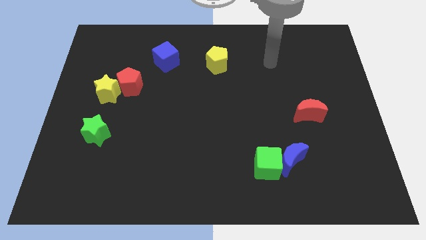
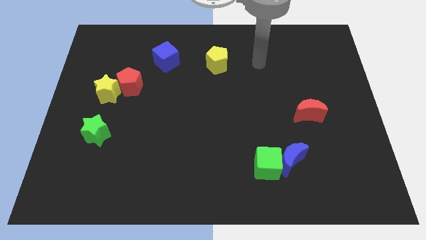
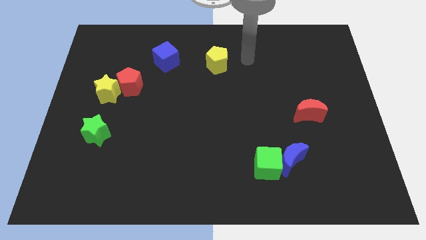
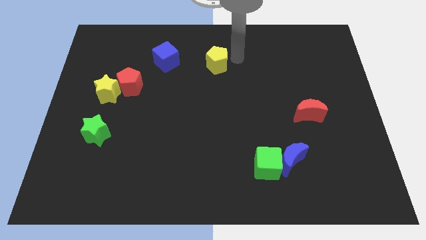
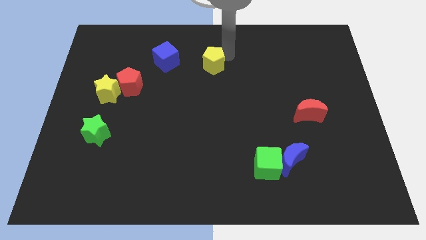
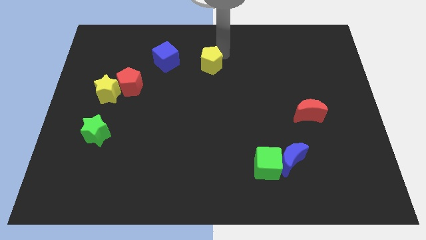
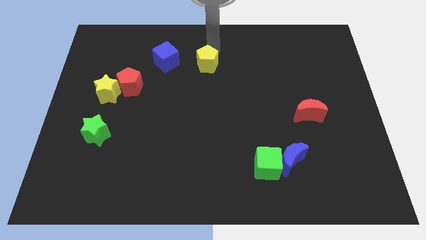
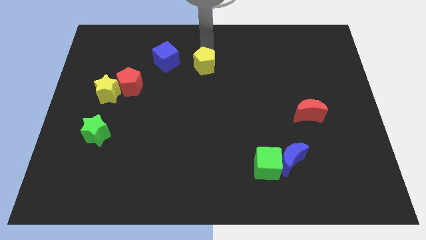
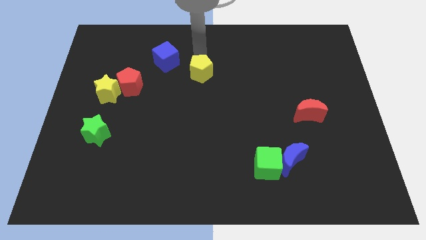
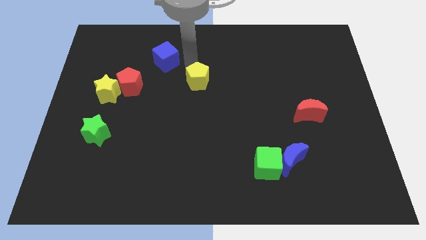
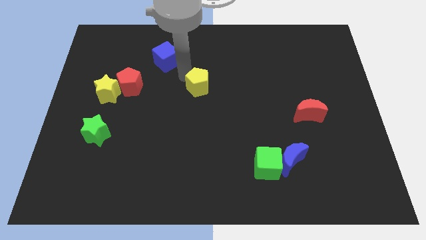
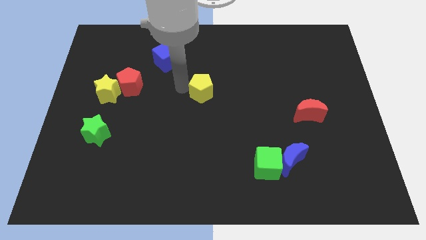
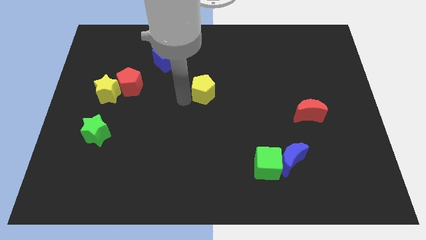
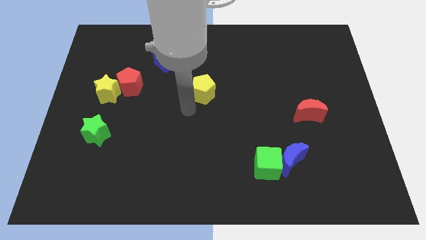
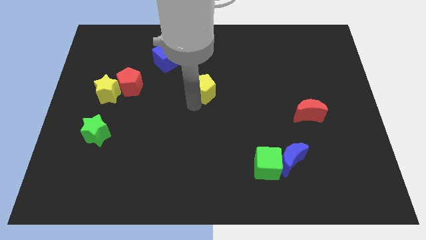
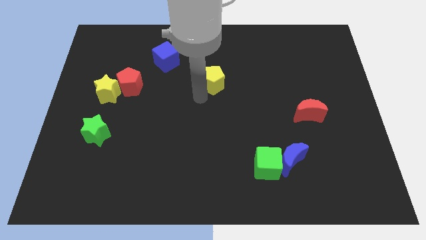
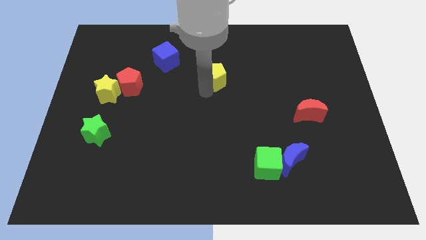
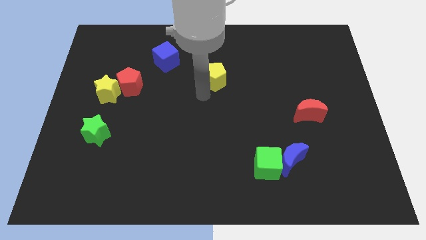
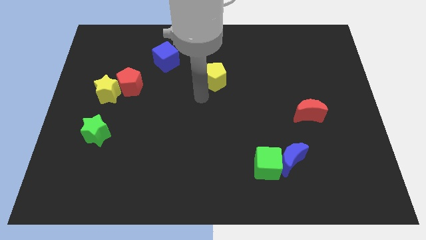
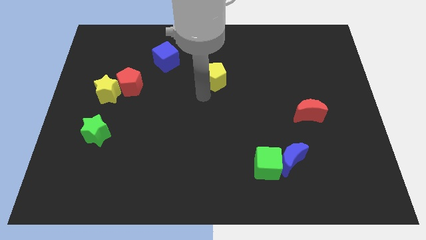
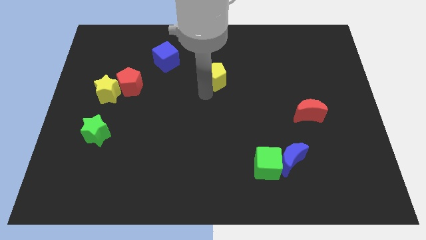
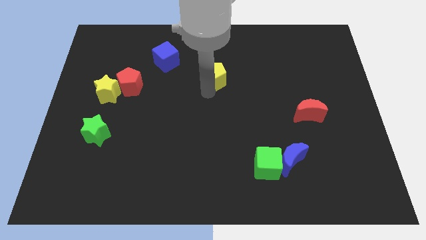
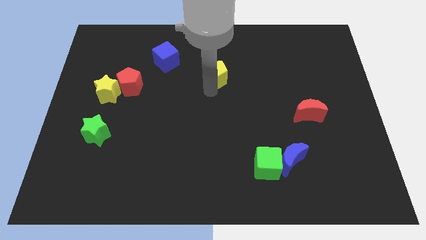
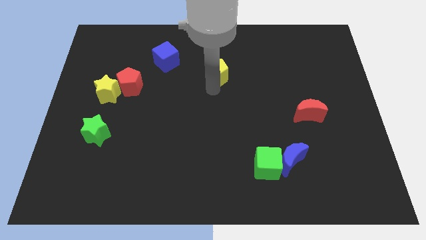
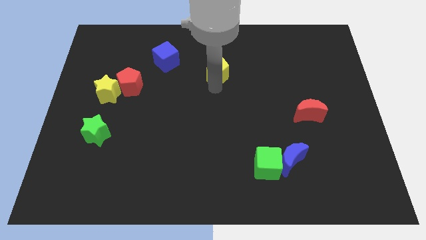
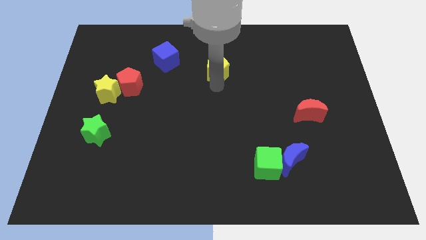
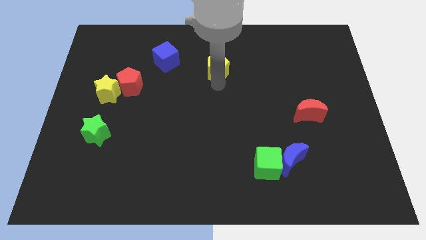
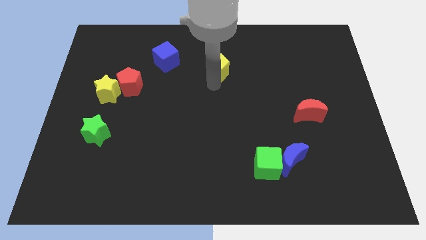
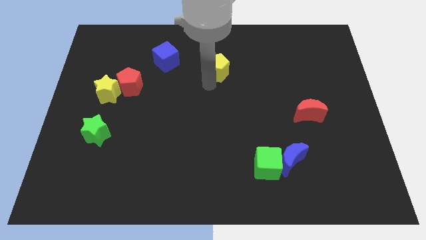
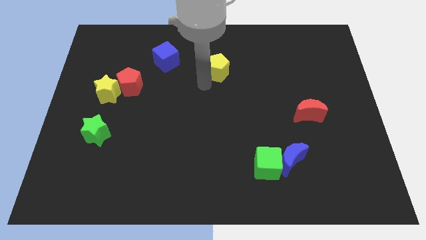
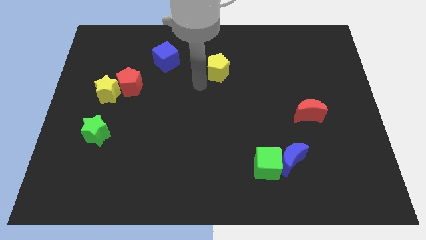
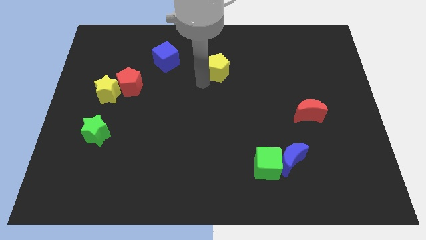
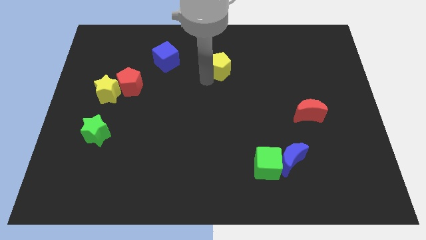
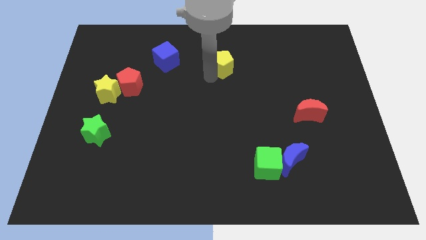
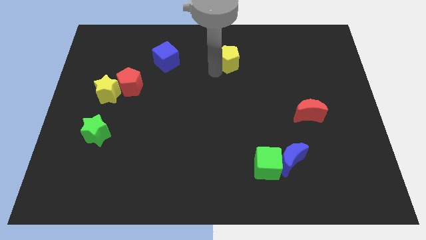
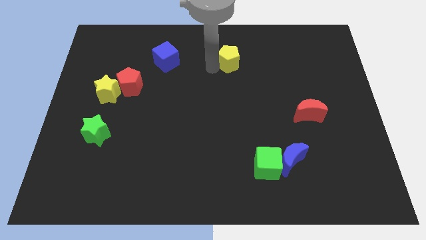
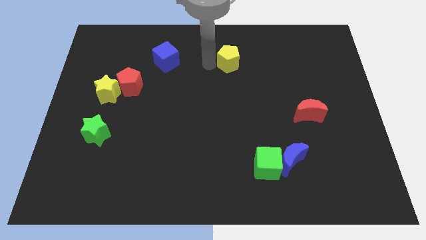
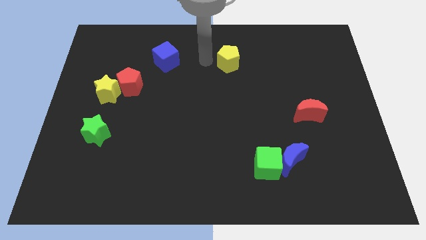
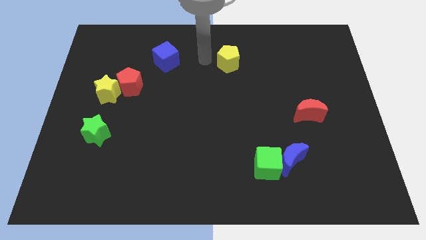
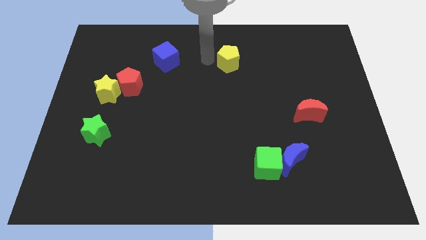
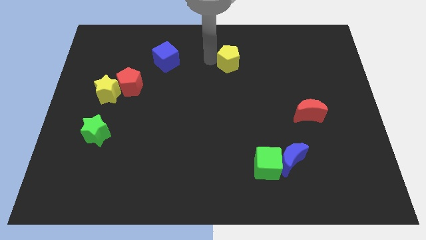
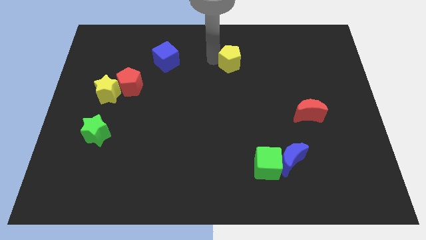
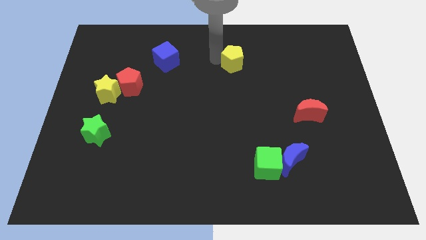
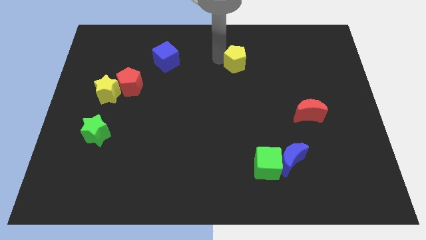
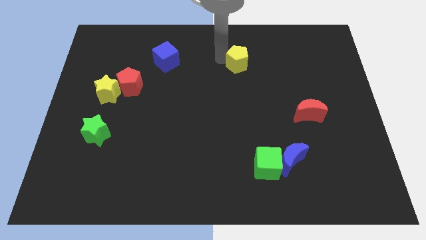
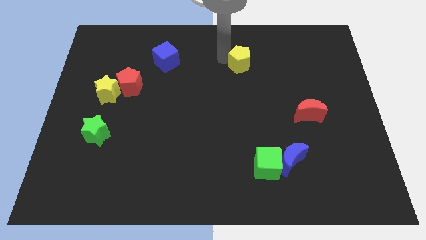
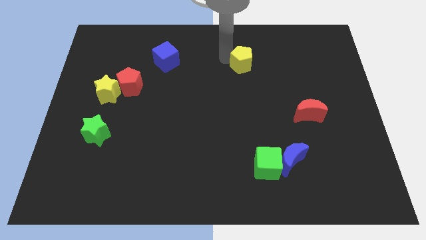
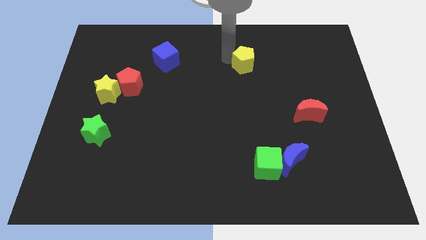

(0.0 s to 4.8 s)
slightly slide the yellow pentagon to the right

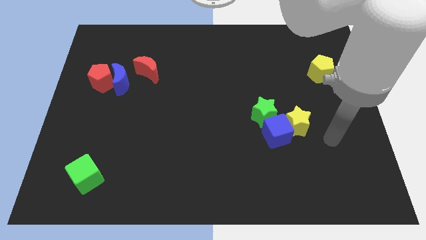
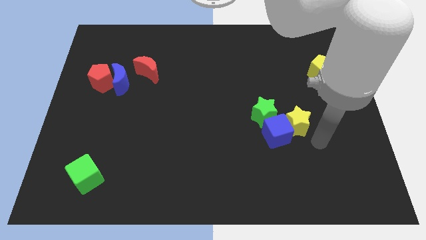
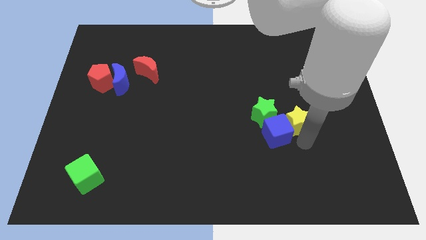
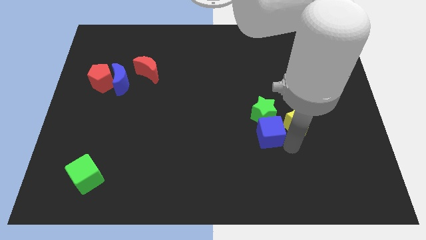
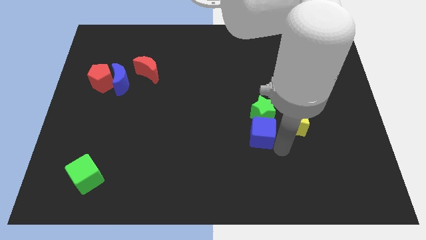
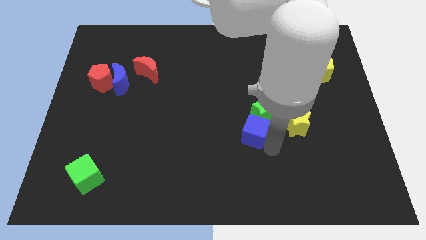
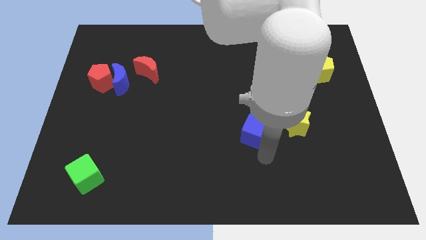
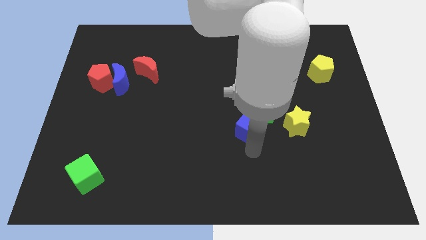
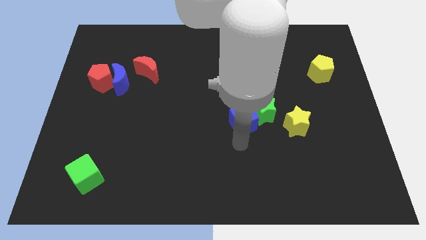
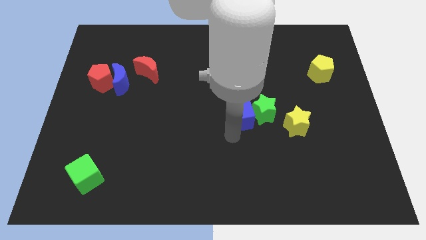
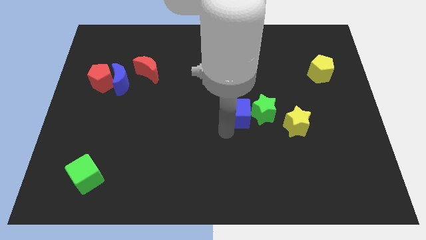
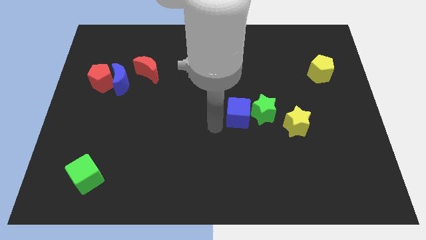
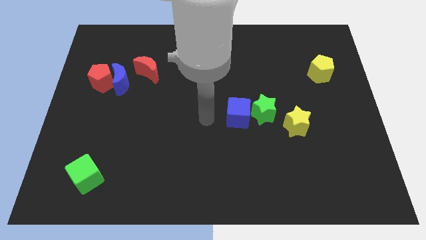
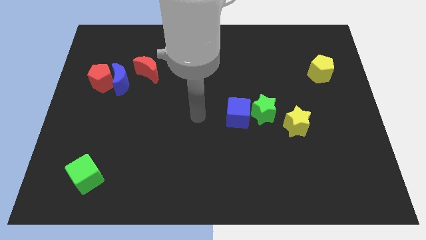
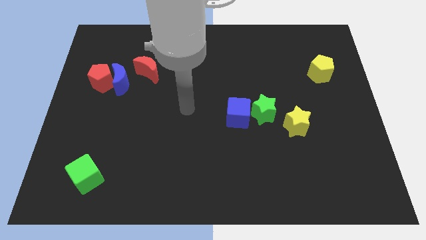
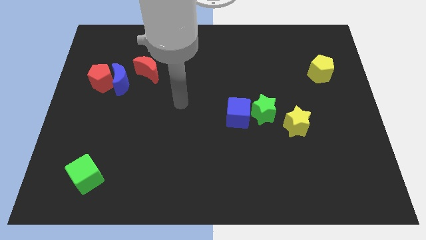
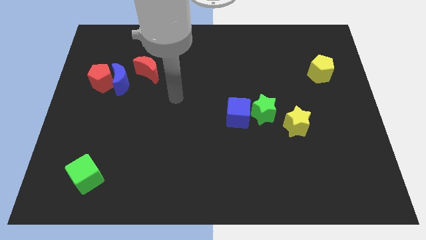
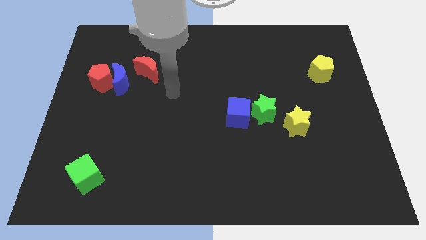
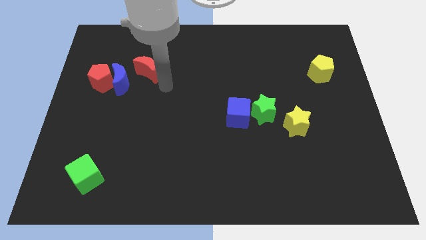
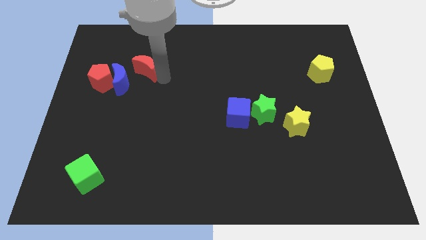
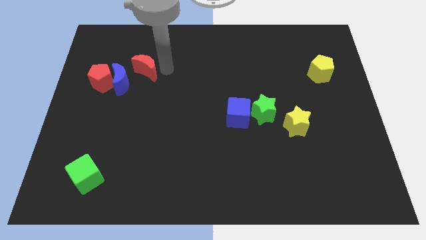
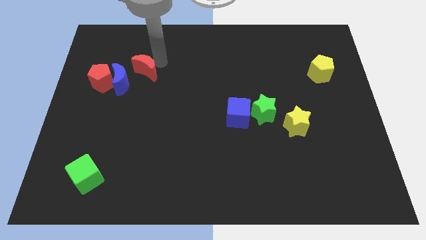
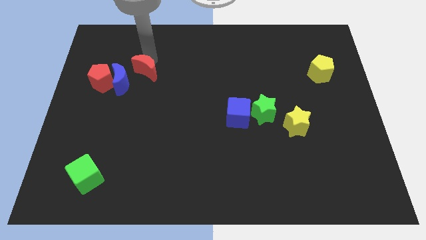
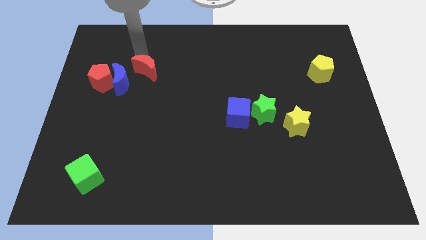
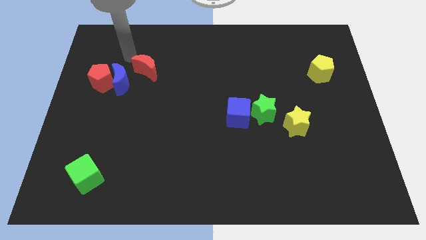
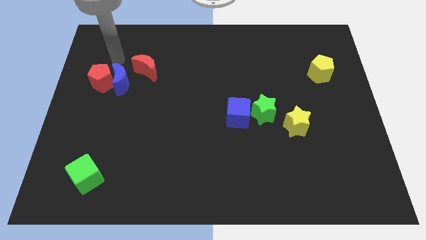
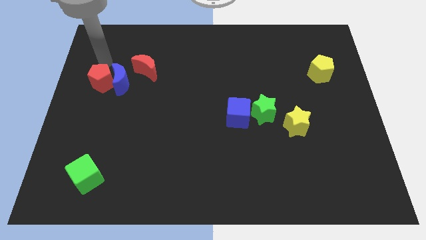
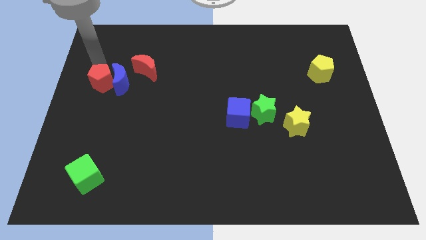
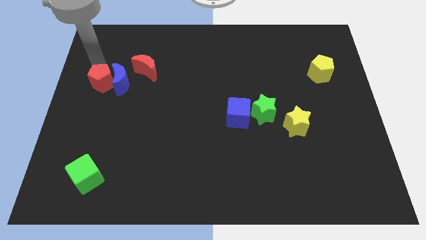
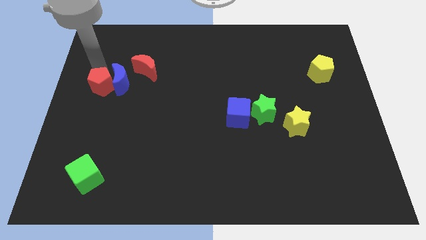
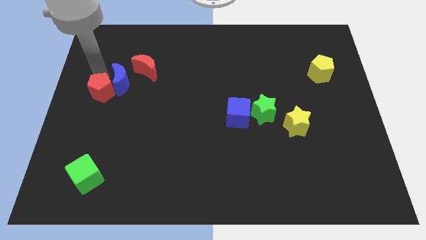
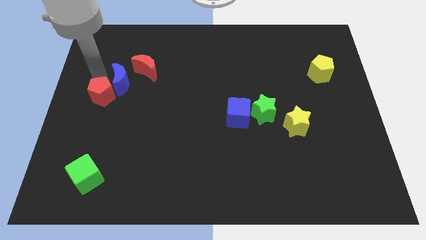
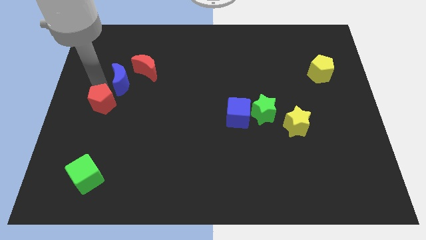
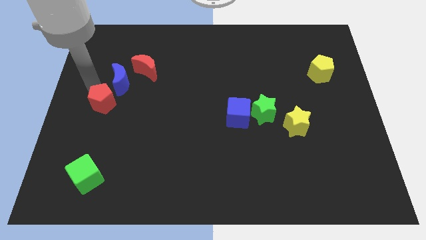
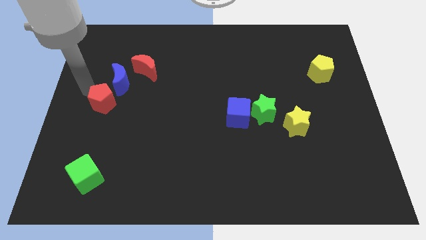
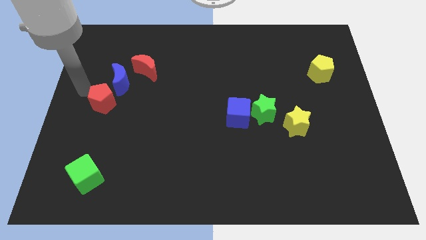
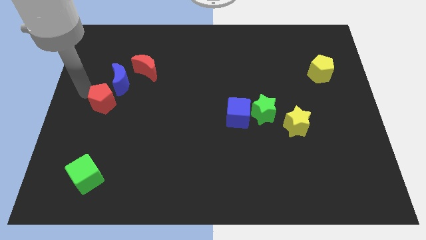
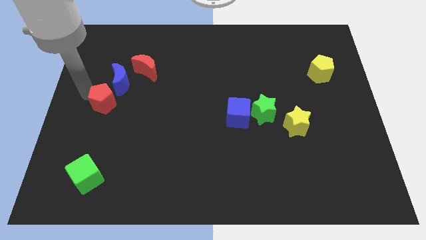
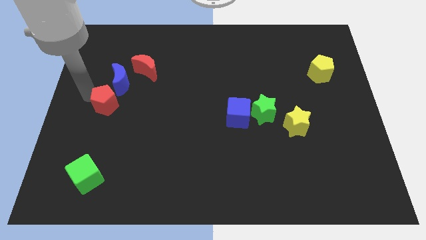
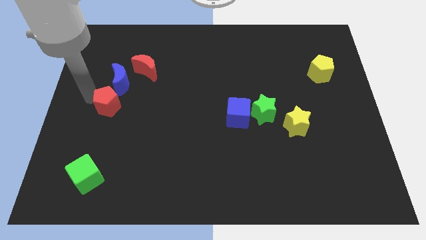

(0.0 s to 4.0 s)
slightly slide the red pentagon downwards and then to the right
